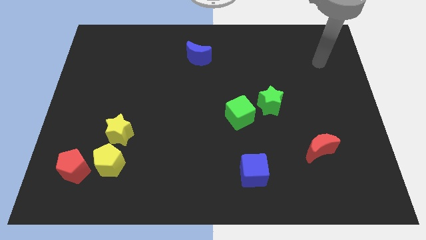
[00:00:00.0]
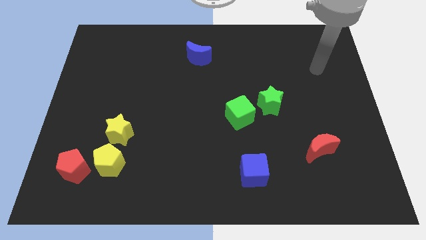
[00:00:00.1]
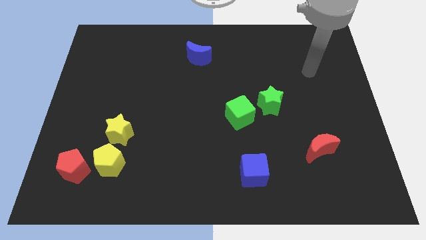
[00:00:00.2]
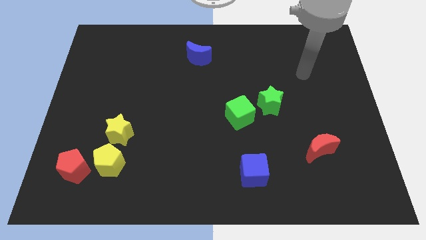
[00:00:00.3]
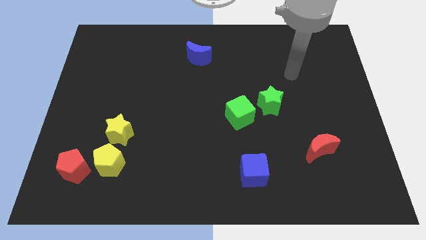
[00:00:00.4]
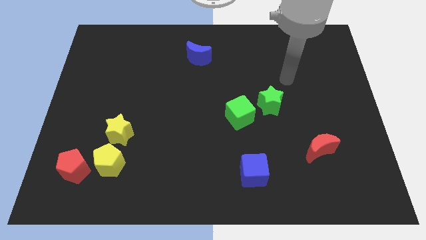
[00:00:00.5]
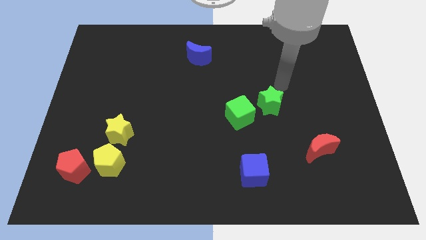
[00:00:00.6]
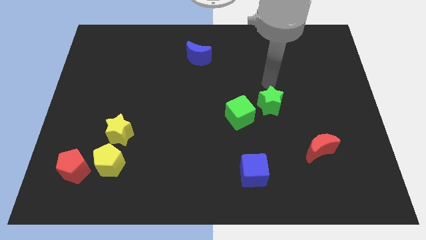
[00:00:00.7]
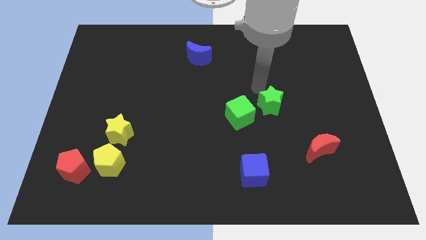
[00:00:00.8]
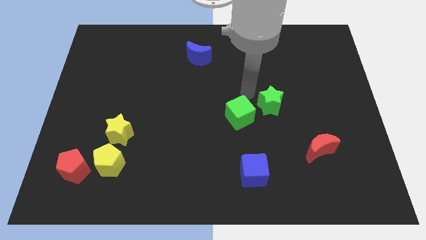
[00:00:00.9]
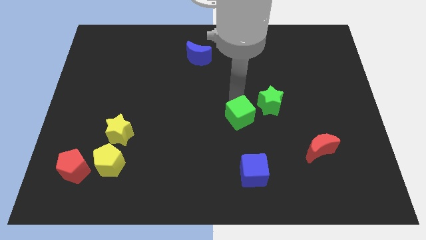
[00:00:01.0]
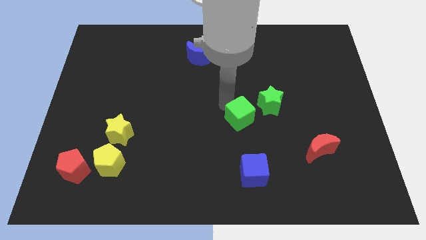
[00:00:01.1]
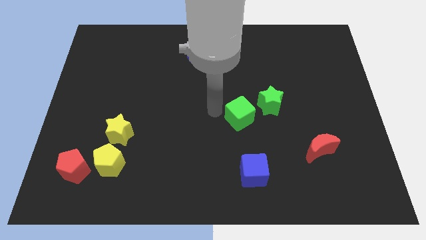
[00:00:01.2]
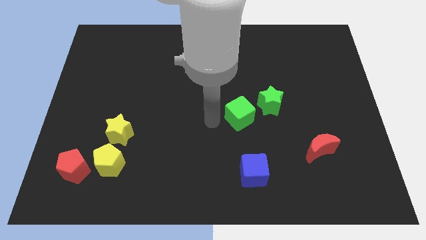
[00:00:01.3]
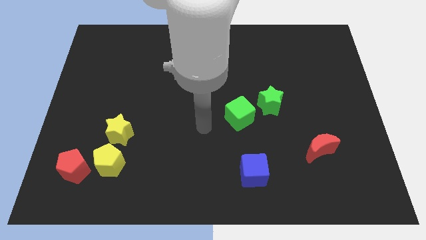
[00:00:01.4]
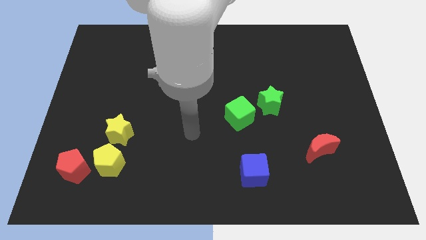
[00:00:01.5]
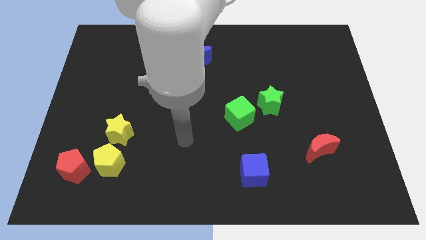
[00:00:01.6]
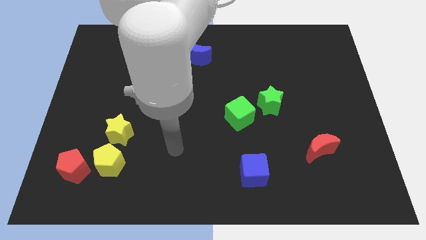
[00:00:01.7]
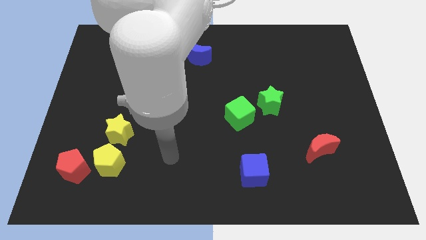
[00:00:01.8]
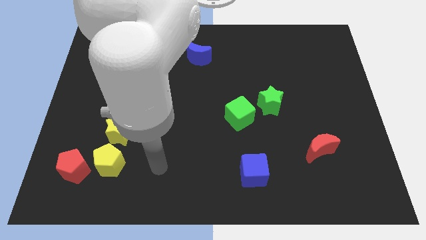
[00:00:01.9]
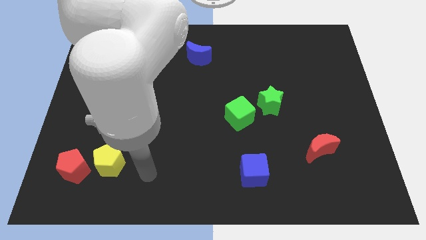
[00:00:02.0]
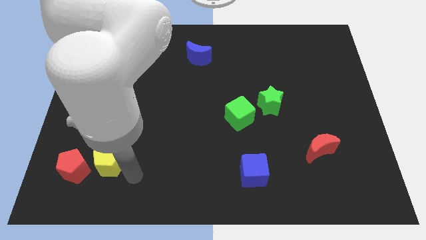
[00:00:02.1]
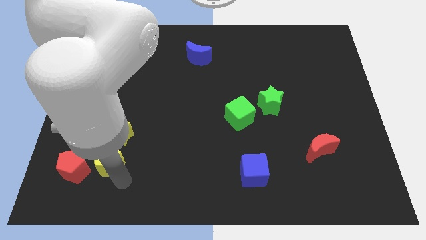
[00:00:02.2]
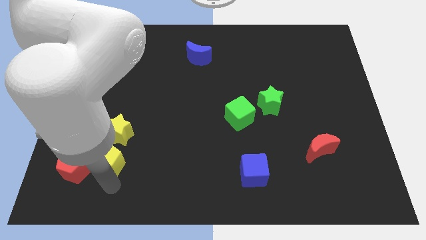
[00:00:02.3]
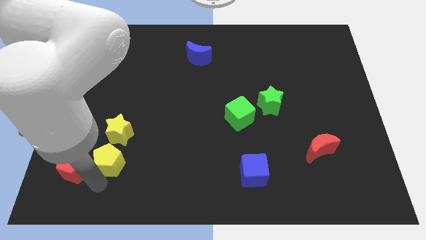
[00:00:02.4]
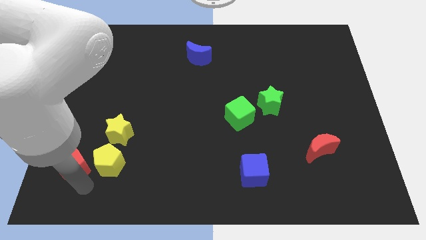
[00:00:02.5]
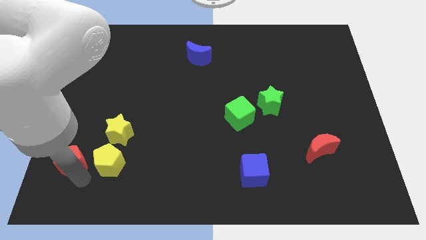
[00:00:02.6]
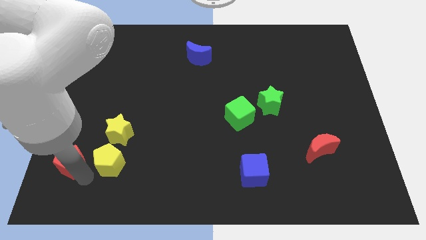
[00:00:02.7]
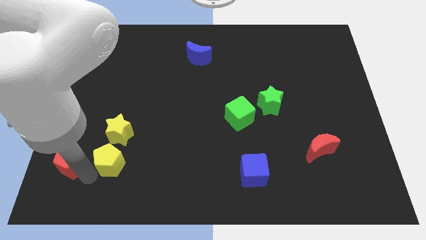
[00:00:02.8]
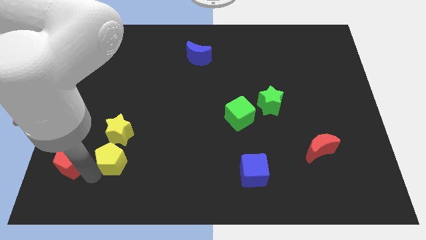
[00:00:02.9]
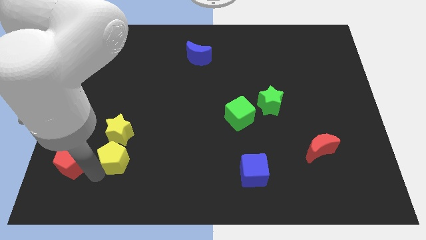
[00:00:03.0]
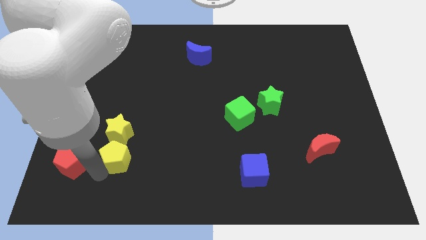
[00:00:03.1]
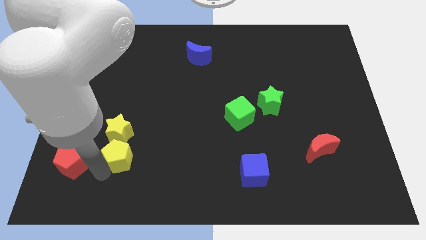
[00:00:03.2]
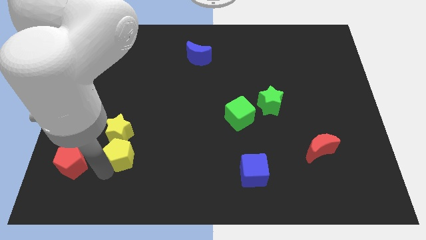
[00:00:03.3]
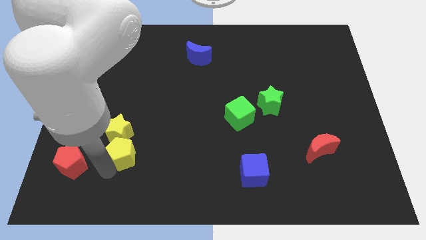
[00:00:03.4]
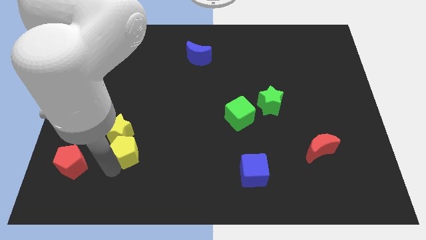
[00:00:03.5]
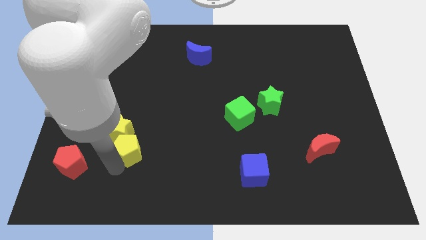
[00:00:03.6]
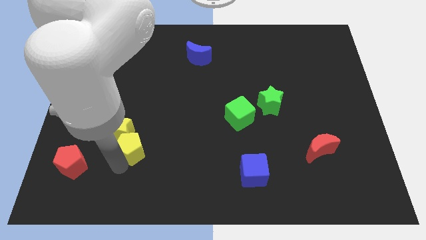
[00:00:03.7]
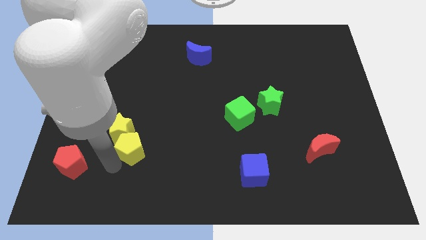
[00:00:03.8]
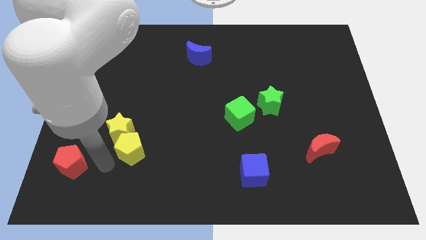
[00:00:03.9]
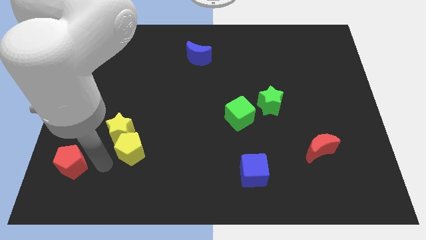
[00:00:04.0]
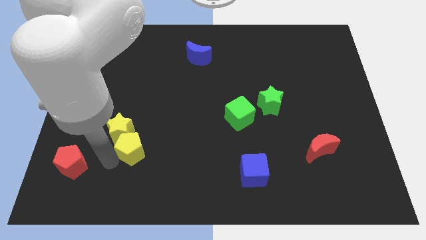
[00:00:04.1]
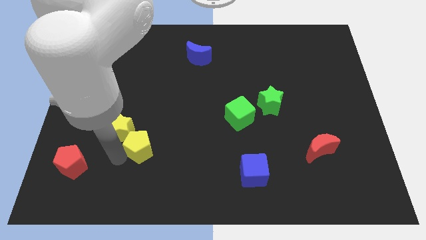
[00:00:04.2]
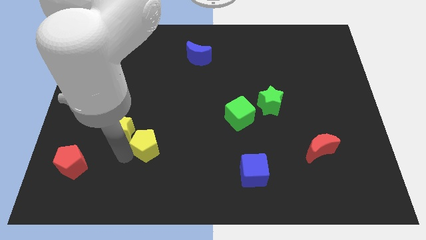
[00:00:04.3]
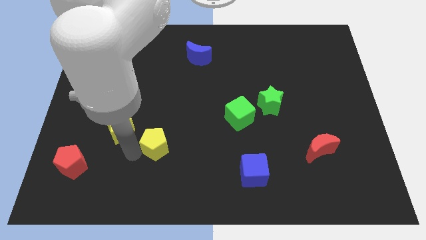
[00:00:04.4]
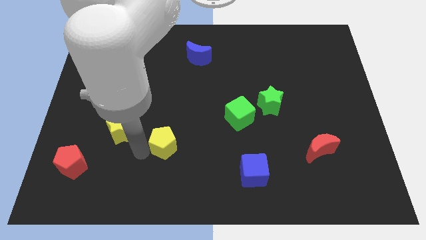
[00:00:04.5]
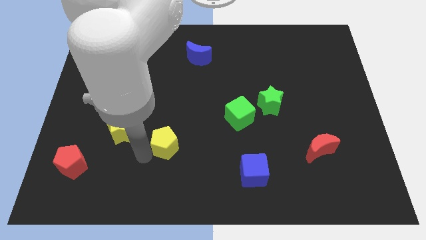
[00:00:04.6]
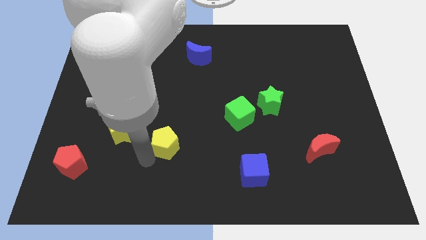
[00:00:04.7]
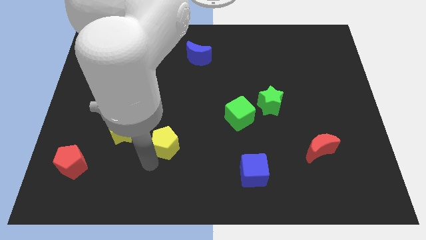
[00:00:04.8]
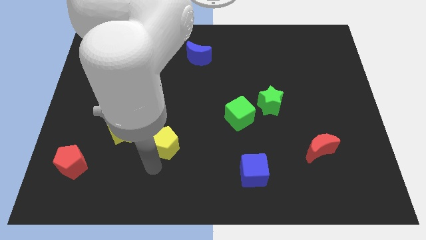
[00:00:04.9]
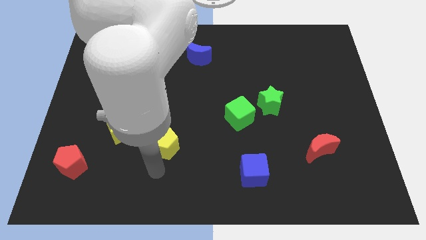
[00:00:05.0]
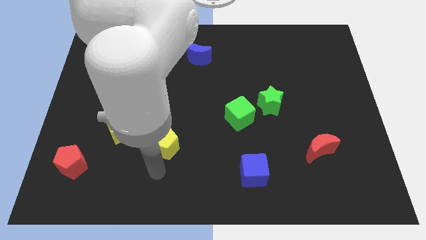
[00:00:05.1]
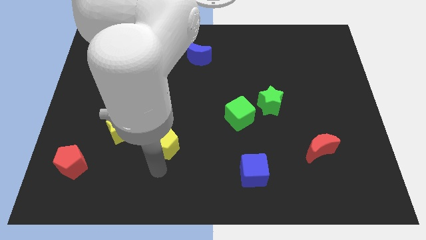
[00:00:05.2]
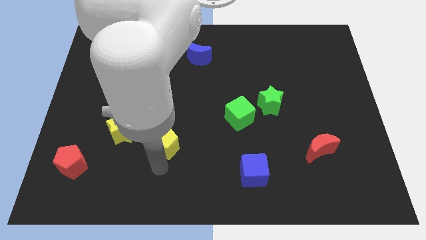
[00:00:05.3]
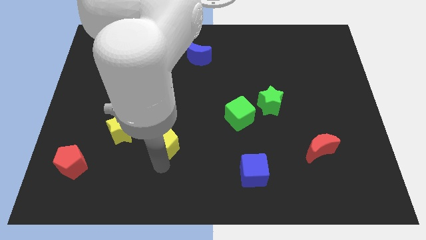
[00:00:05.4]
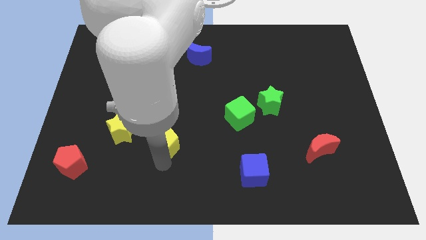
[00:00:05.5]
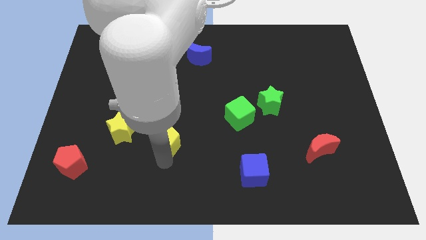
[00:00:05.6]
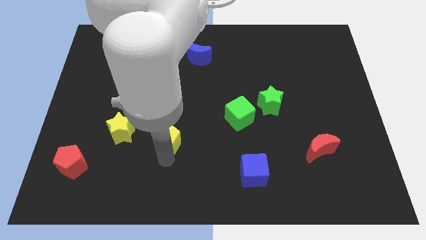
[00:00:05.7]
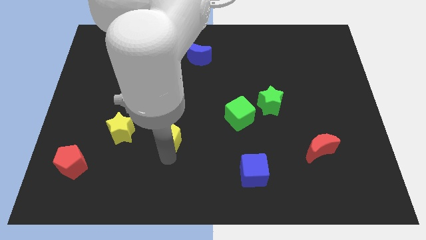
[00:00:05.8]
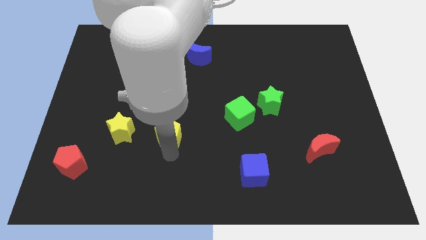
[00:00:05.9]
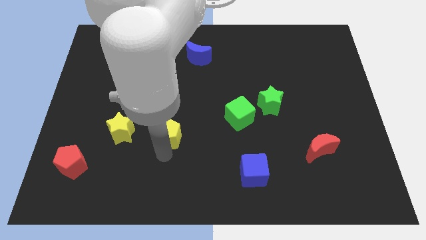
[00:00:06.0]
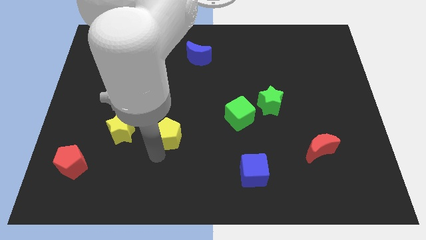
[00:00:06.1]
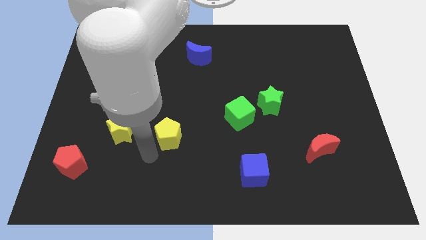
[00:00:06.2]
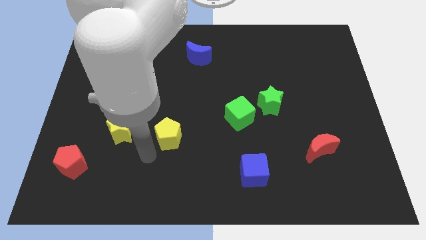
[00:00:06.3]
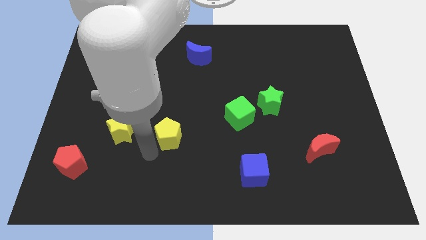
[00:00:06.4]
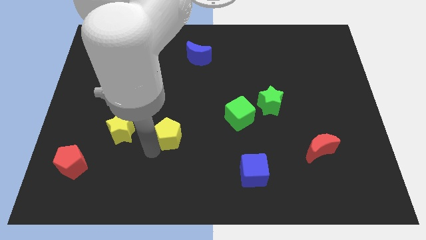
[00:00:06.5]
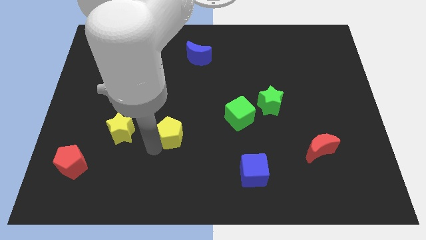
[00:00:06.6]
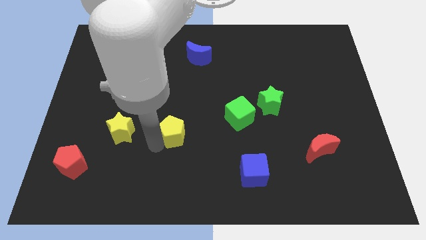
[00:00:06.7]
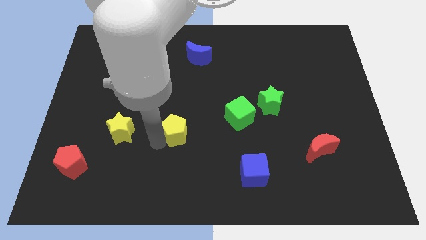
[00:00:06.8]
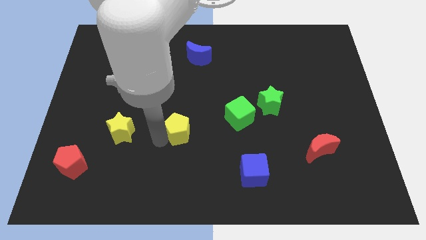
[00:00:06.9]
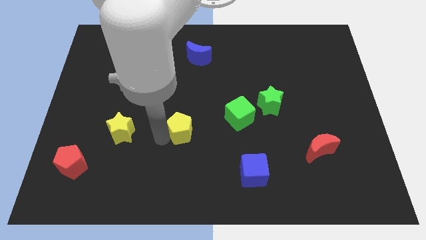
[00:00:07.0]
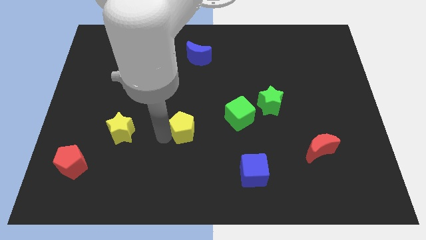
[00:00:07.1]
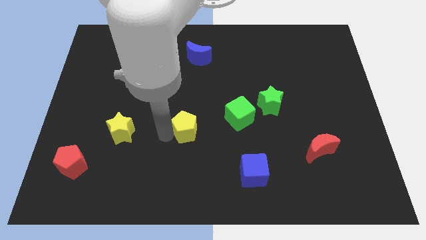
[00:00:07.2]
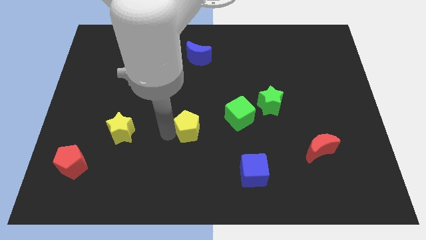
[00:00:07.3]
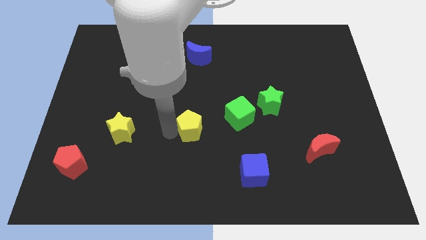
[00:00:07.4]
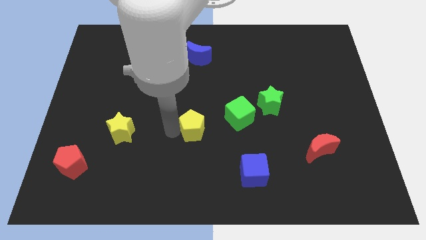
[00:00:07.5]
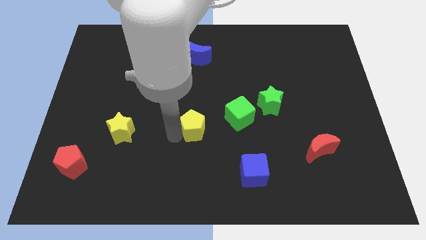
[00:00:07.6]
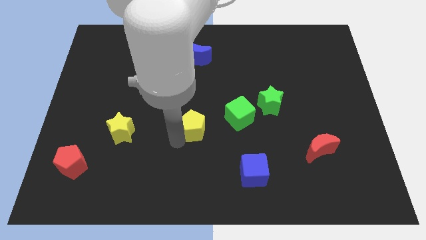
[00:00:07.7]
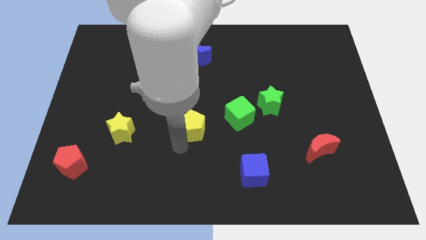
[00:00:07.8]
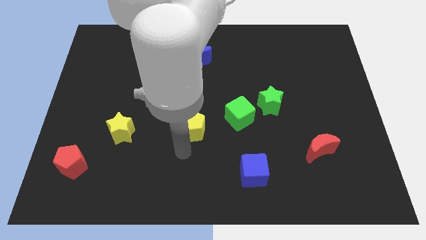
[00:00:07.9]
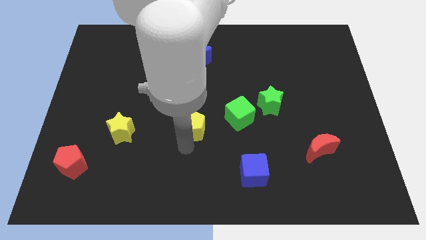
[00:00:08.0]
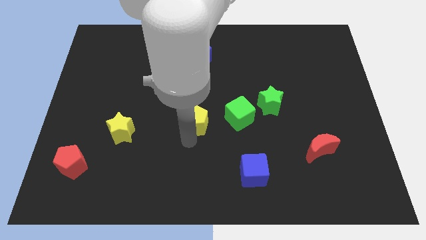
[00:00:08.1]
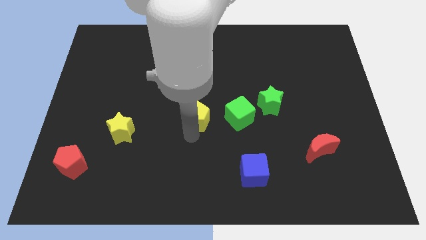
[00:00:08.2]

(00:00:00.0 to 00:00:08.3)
push the yellow pentagon up and right diagonally
